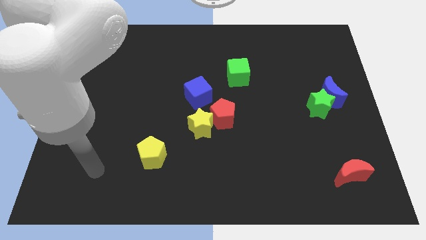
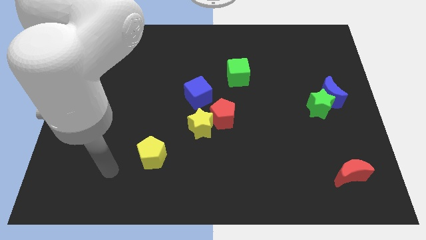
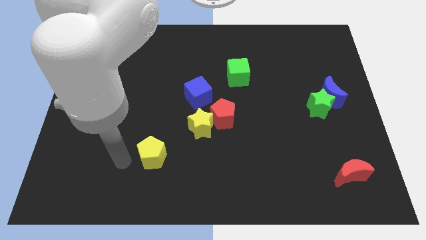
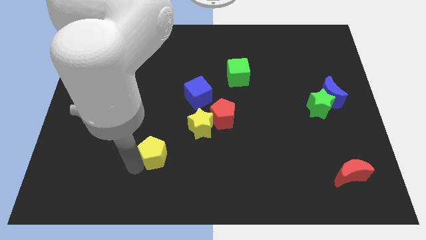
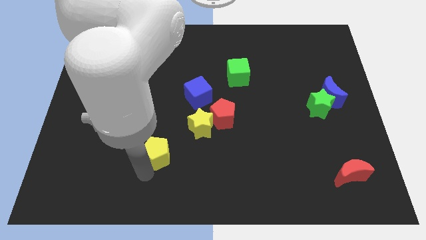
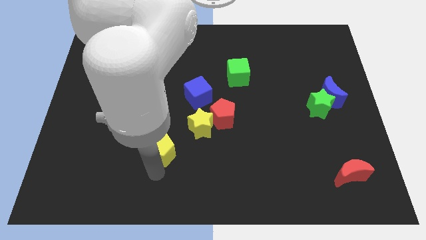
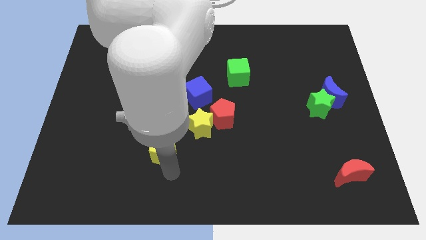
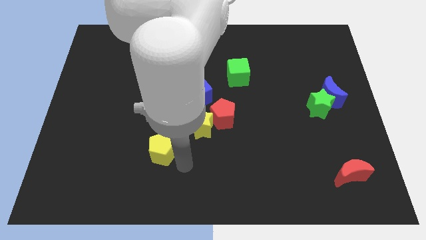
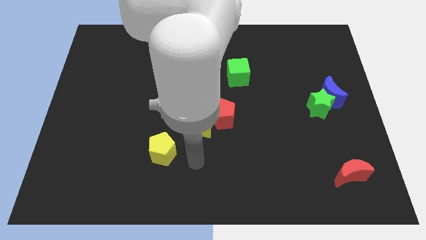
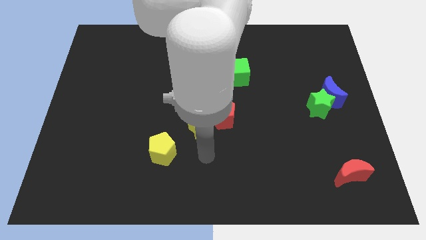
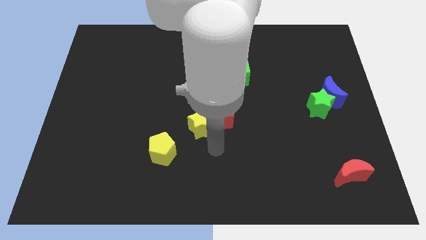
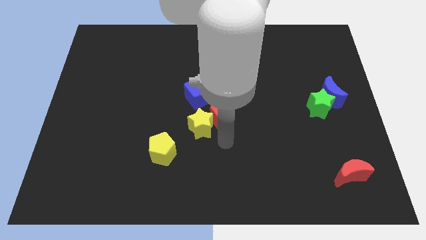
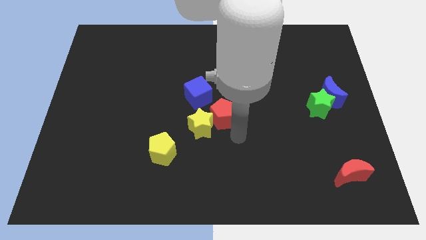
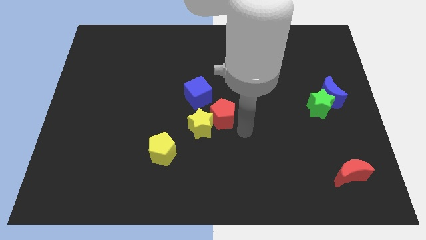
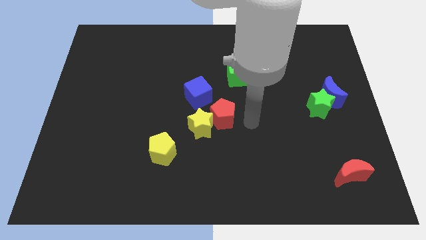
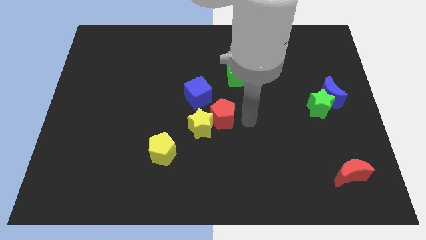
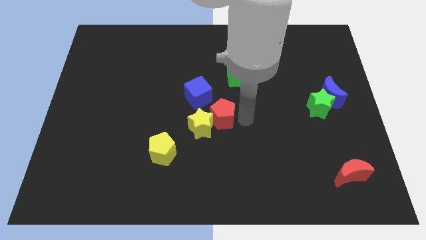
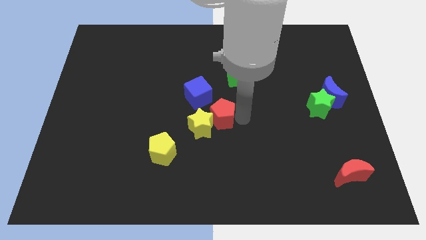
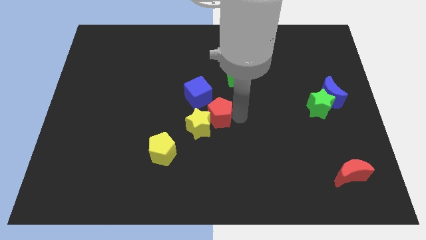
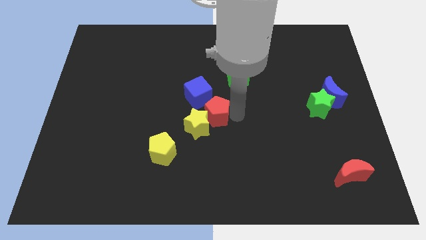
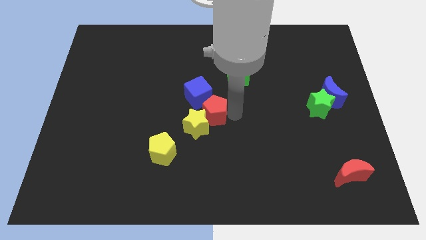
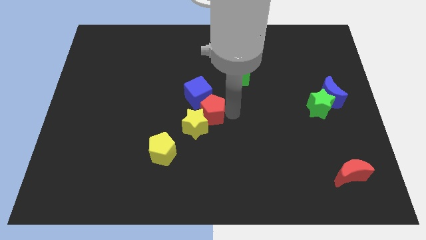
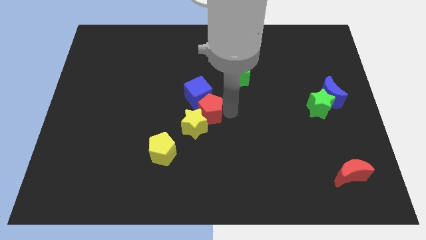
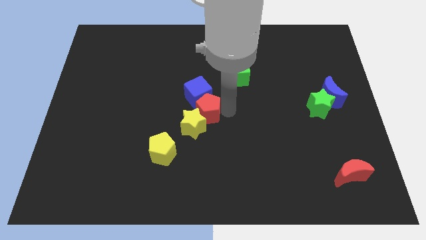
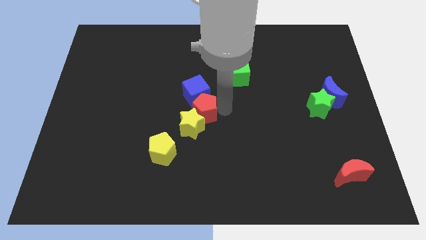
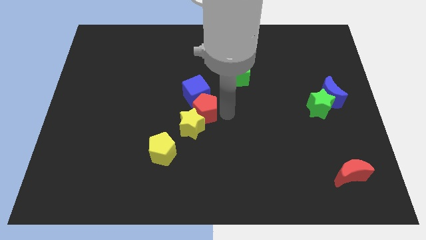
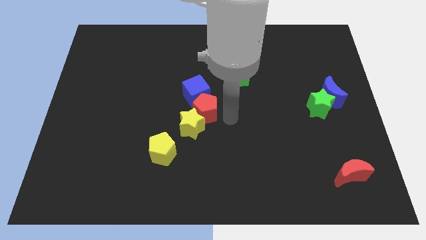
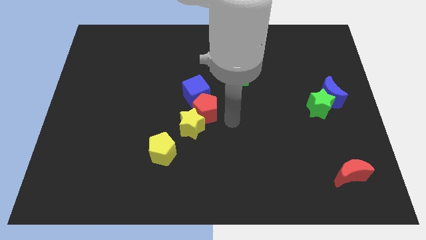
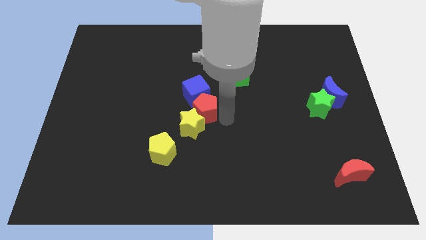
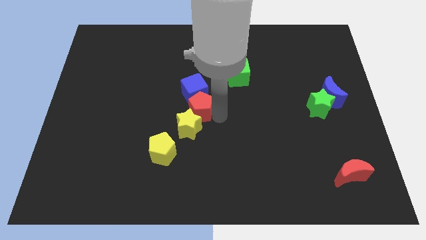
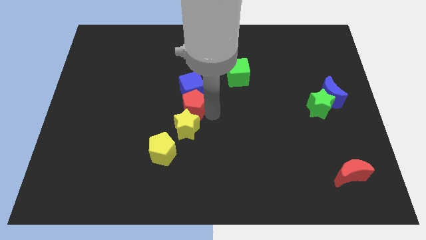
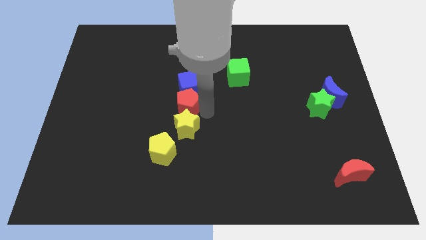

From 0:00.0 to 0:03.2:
slide the red pentagon diagonally upwards and to the left a little

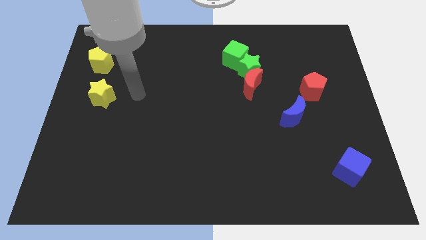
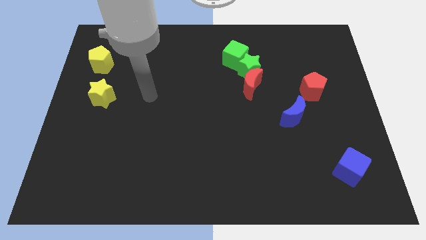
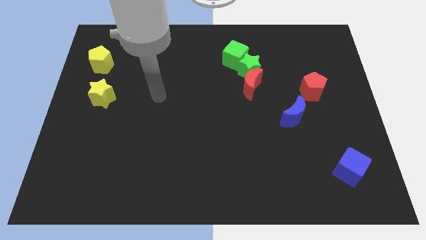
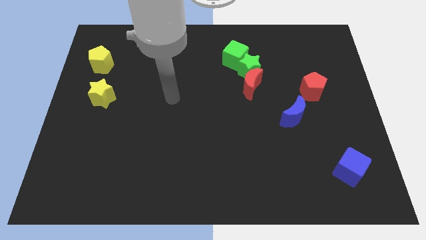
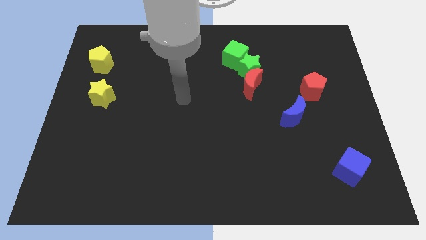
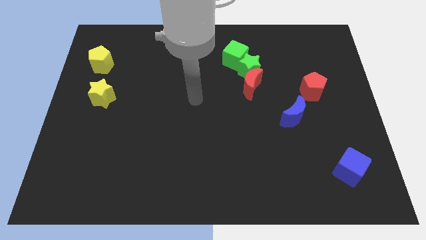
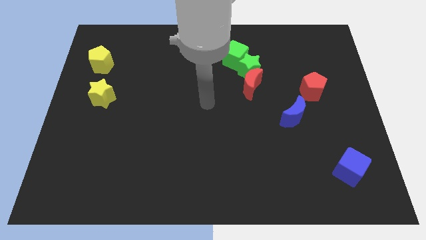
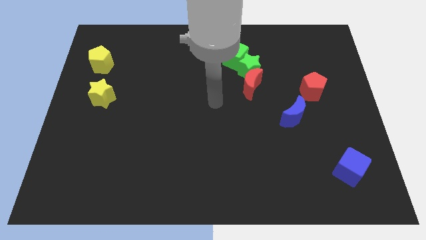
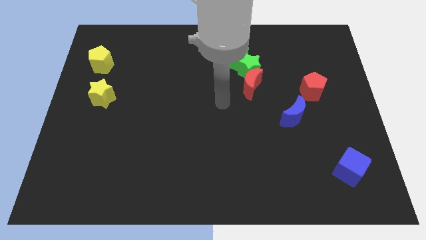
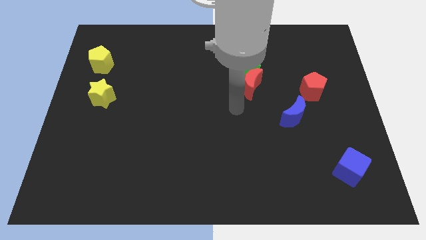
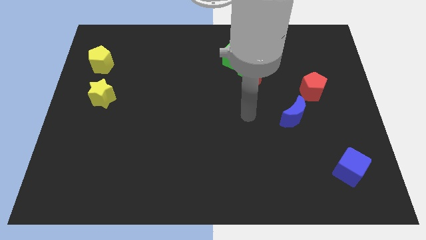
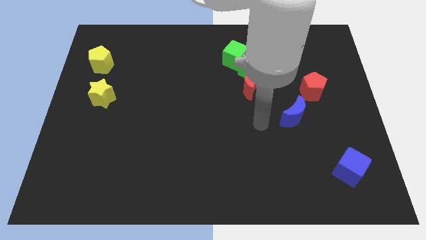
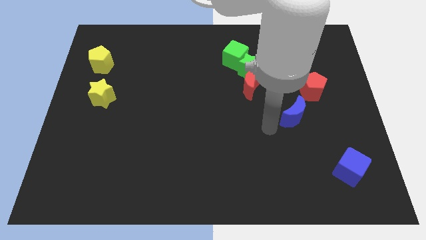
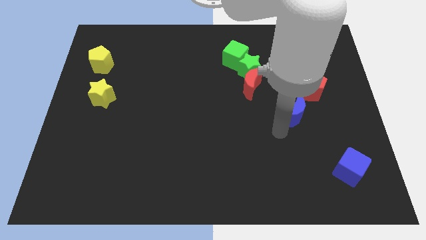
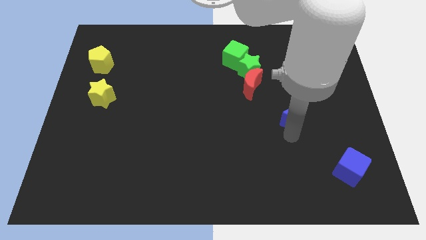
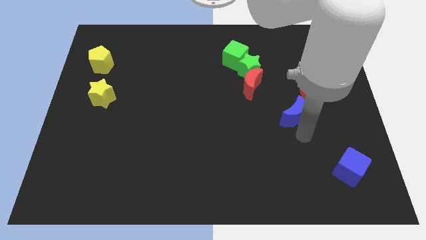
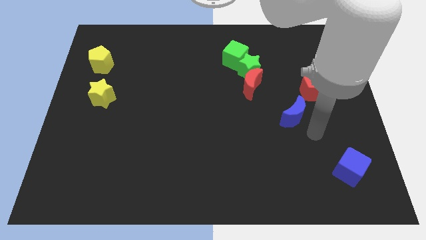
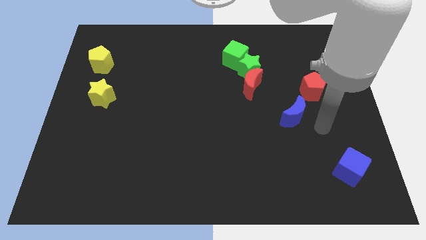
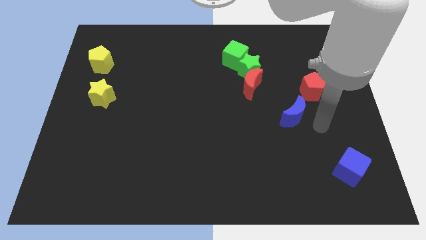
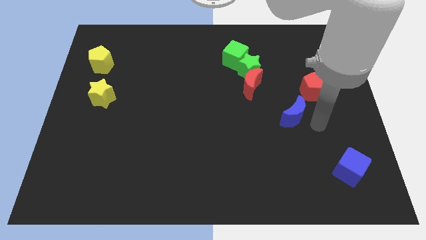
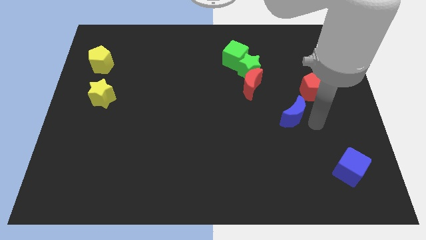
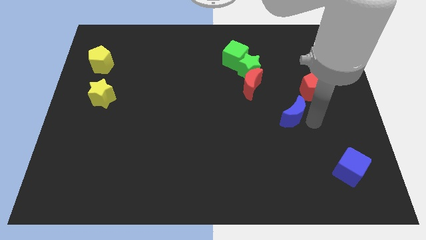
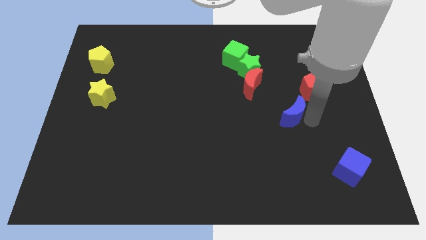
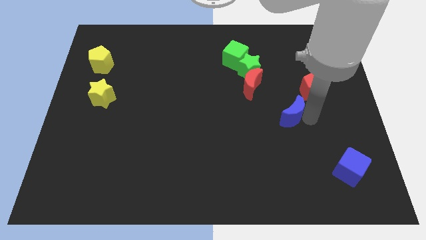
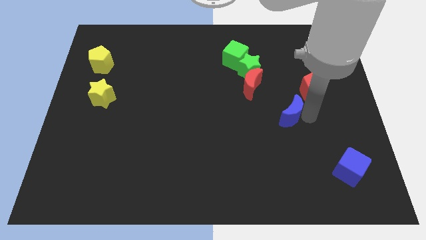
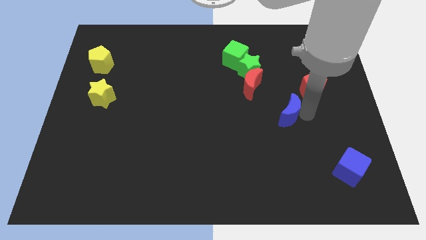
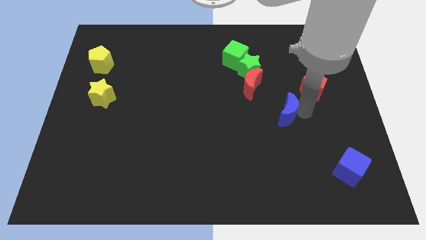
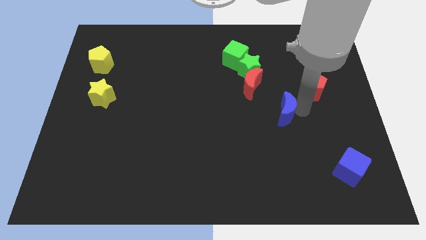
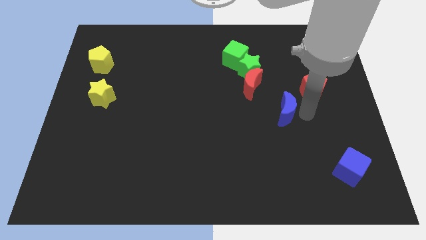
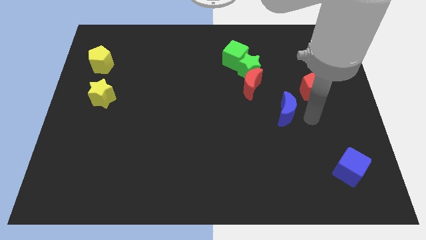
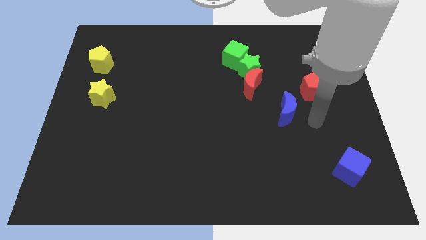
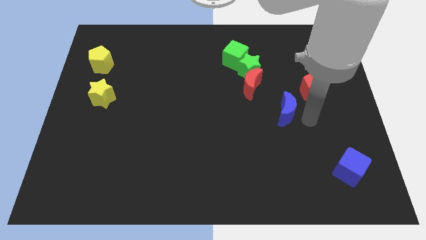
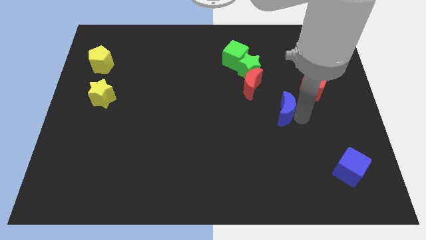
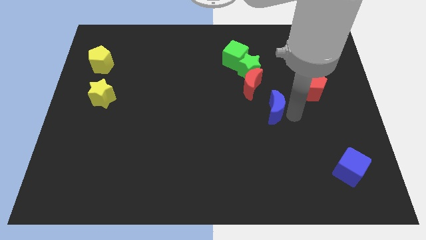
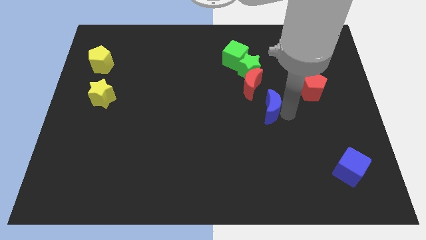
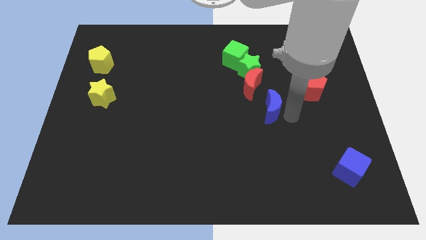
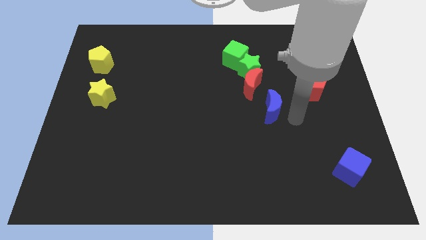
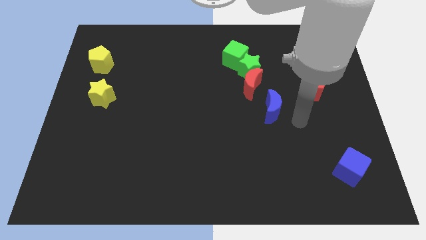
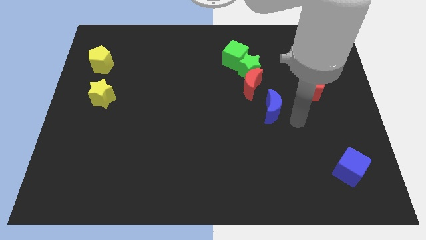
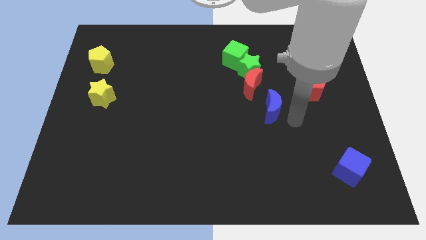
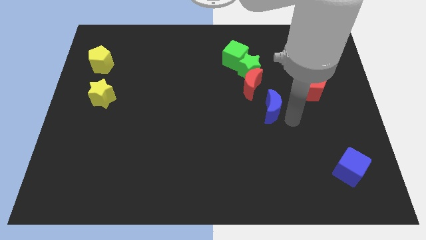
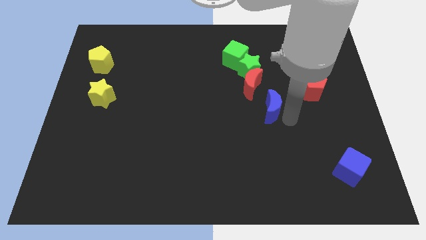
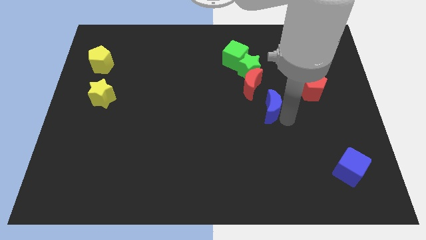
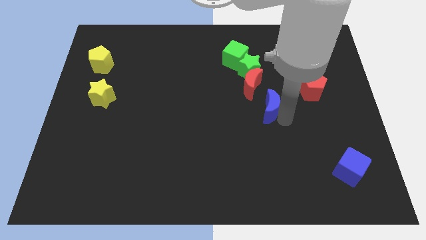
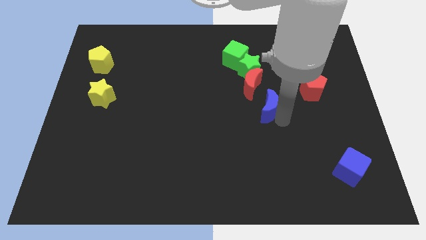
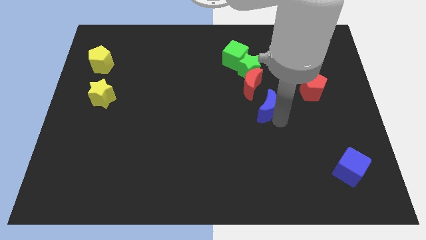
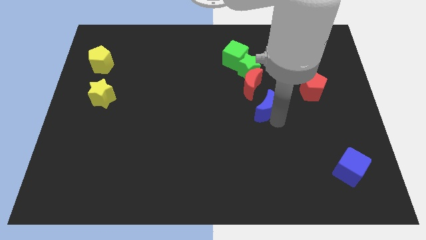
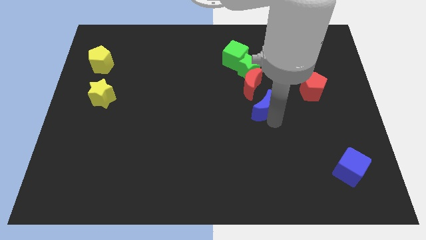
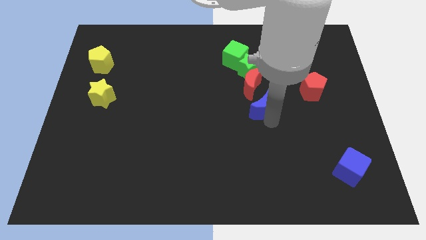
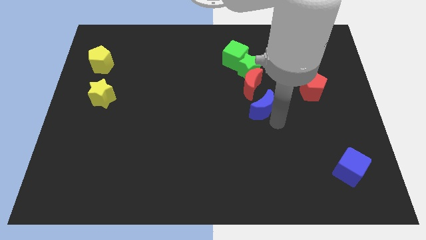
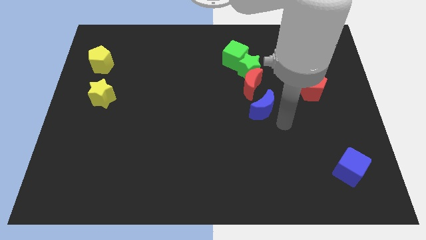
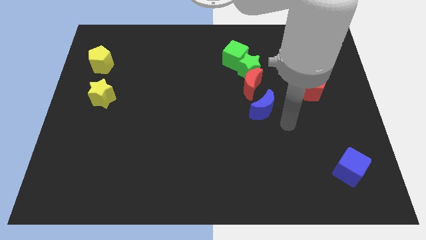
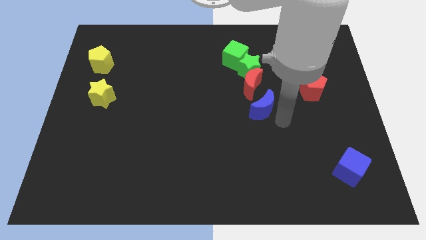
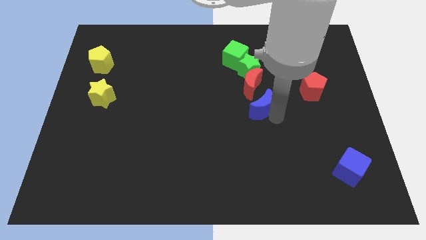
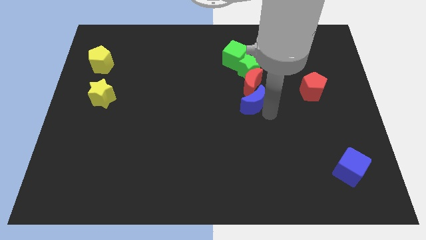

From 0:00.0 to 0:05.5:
slightly slide the blue moon upwards and then left
